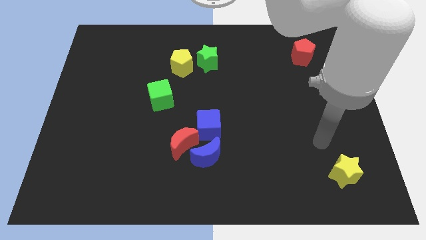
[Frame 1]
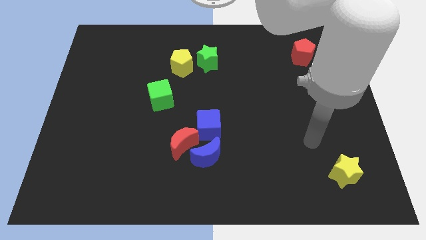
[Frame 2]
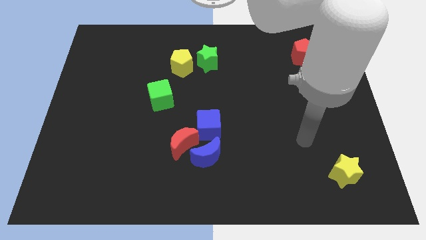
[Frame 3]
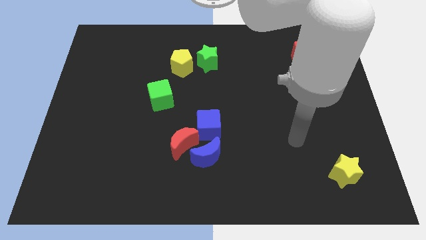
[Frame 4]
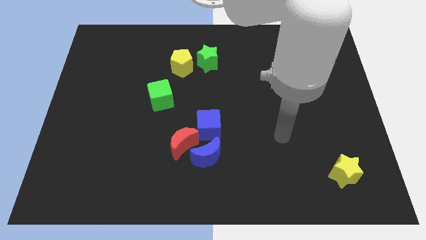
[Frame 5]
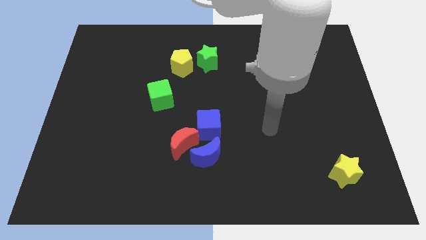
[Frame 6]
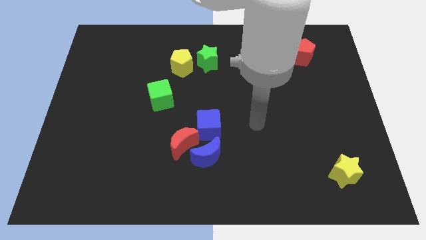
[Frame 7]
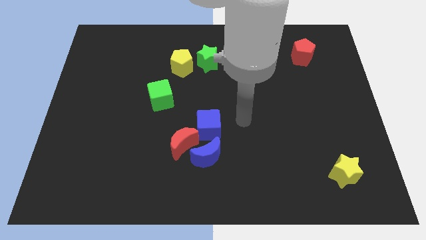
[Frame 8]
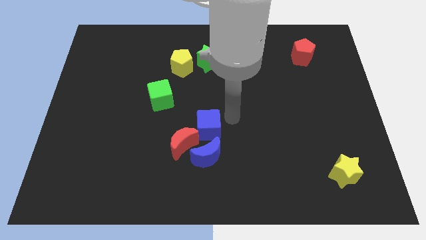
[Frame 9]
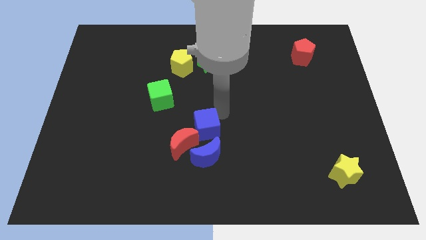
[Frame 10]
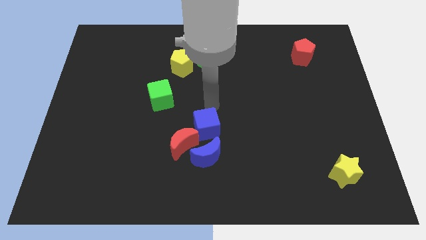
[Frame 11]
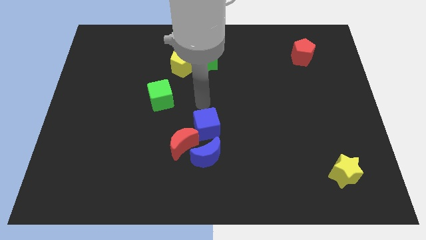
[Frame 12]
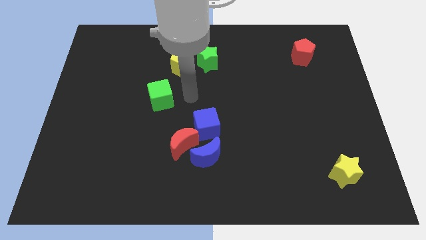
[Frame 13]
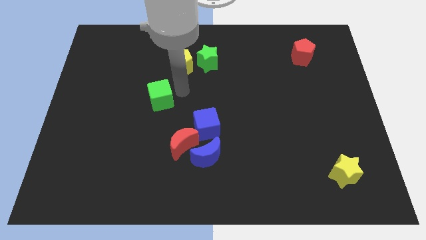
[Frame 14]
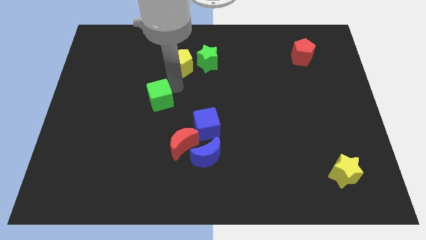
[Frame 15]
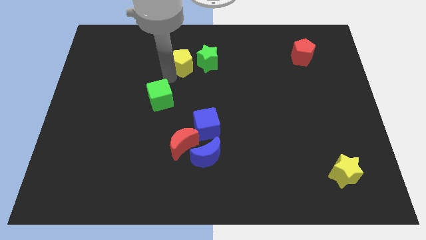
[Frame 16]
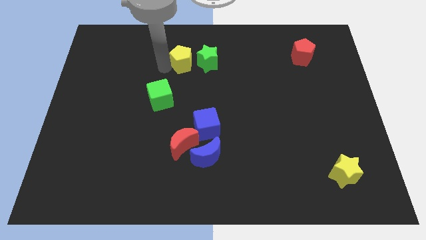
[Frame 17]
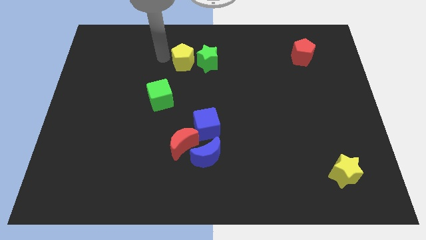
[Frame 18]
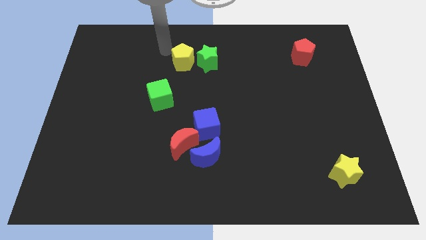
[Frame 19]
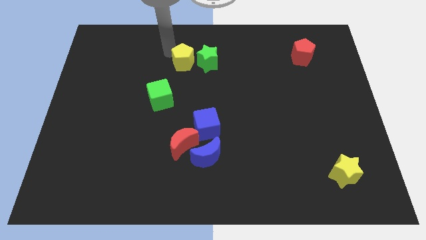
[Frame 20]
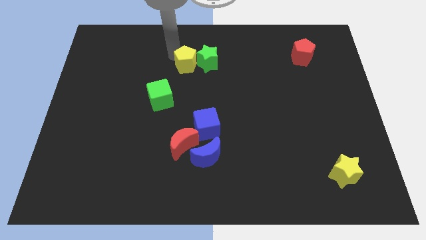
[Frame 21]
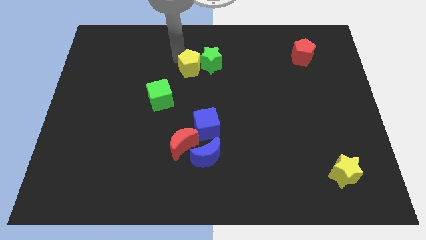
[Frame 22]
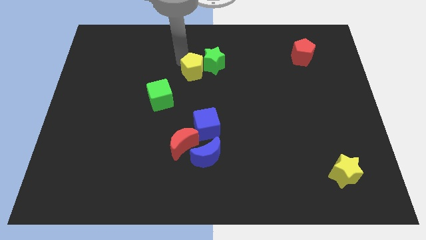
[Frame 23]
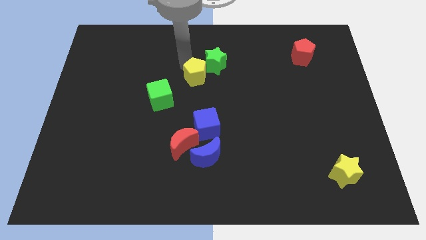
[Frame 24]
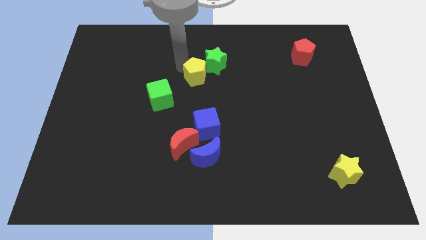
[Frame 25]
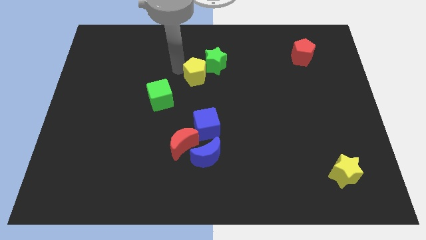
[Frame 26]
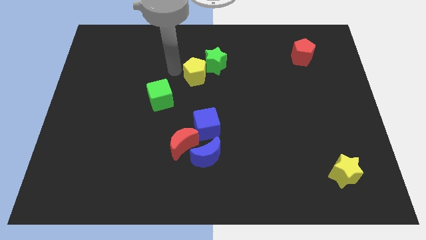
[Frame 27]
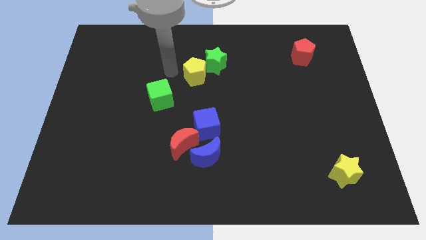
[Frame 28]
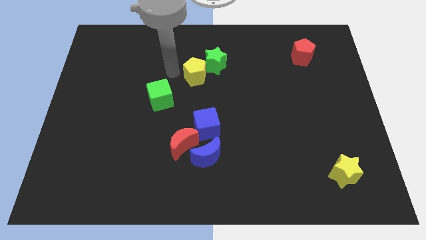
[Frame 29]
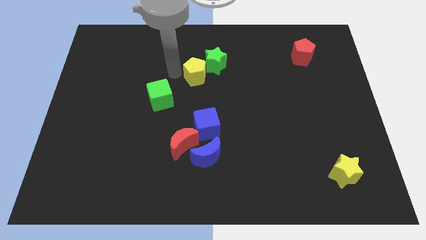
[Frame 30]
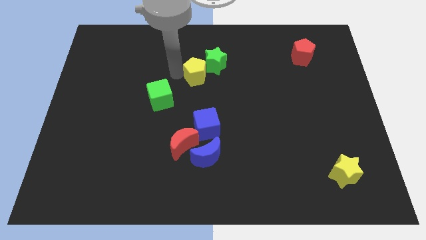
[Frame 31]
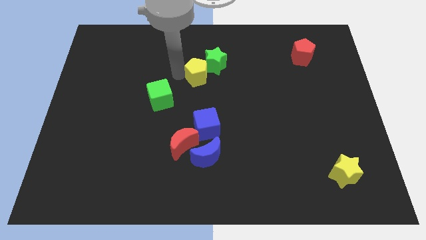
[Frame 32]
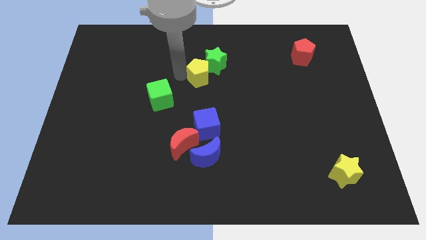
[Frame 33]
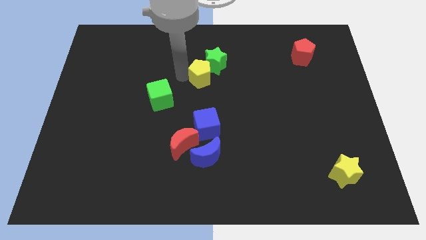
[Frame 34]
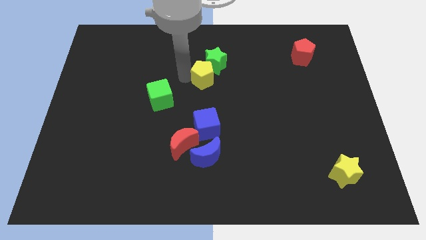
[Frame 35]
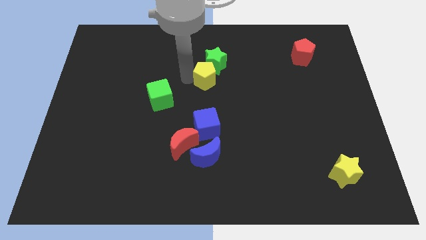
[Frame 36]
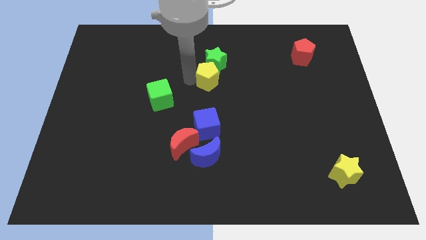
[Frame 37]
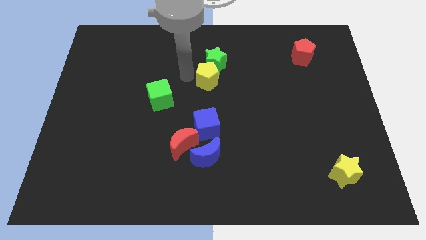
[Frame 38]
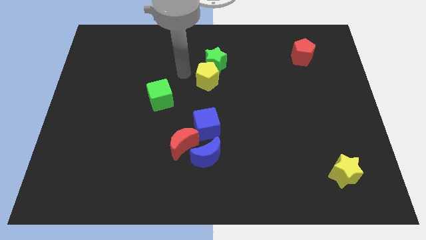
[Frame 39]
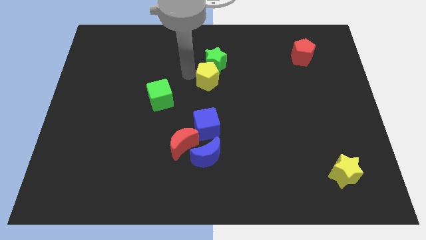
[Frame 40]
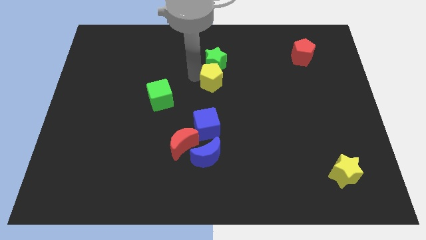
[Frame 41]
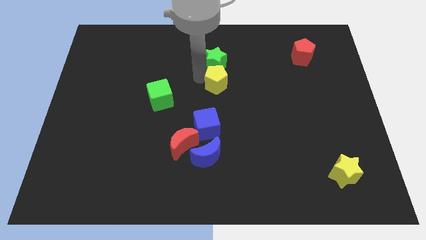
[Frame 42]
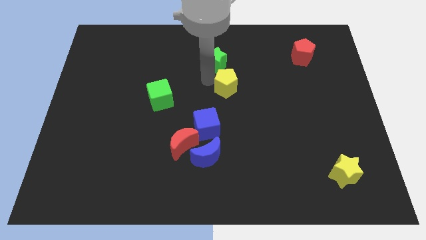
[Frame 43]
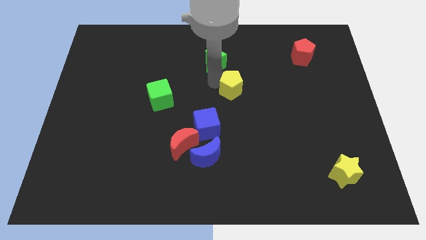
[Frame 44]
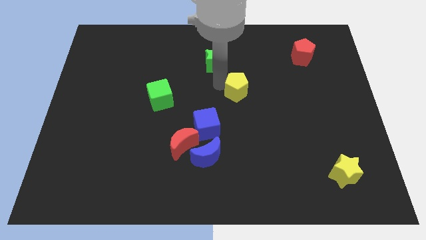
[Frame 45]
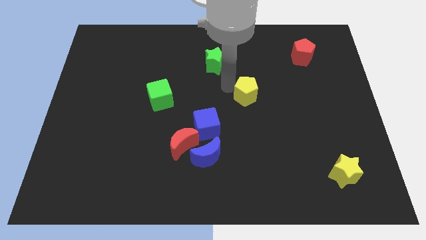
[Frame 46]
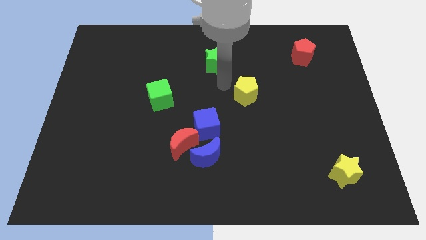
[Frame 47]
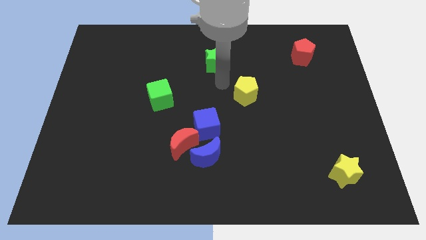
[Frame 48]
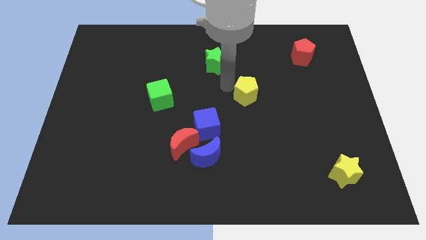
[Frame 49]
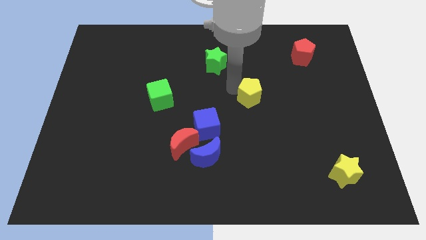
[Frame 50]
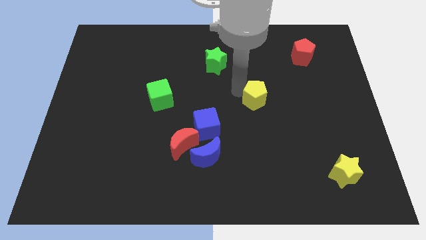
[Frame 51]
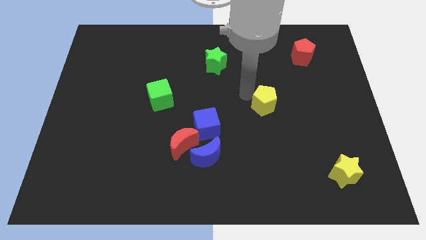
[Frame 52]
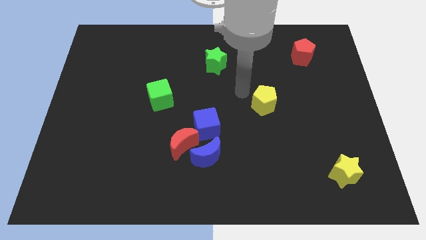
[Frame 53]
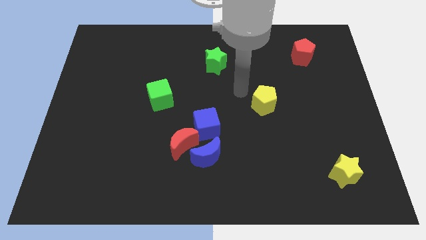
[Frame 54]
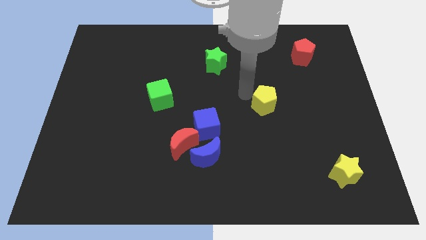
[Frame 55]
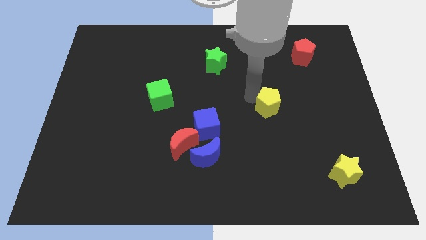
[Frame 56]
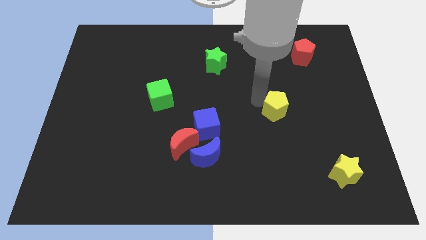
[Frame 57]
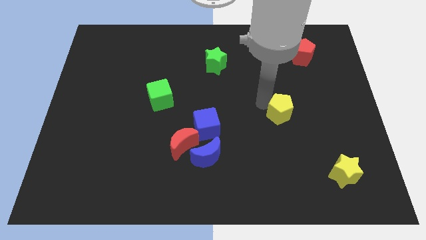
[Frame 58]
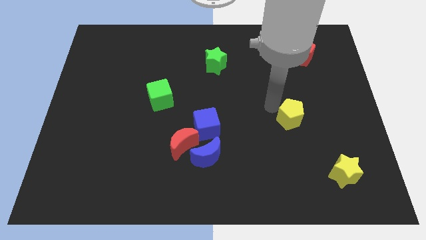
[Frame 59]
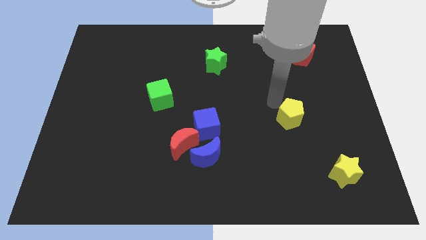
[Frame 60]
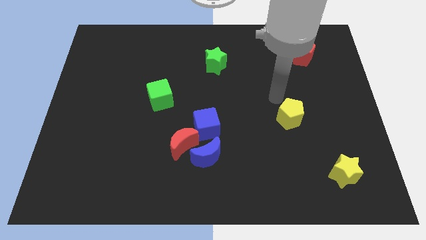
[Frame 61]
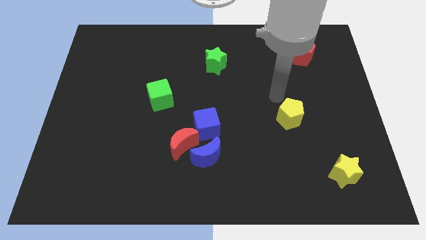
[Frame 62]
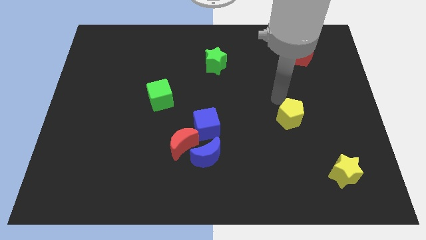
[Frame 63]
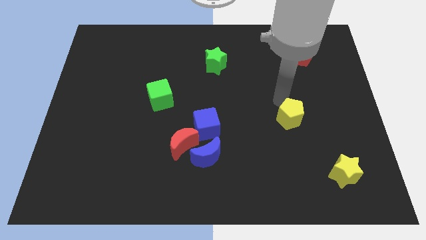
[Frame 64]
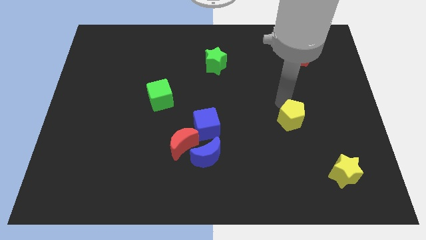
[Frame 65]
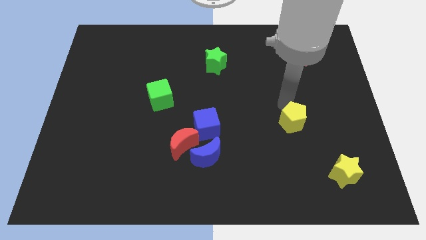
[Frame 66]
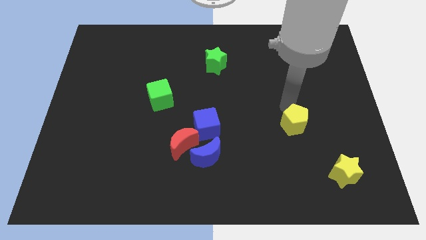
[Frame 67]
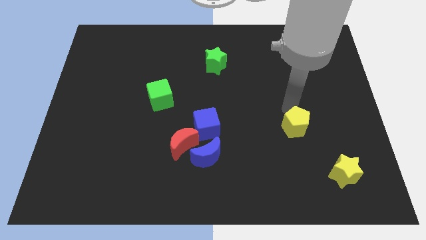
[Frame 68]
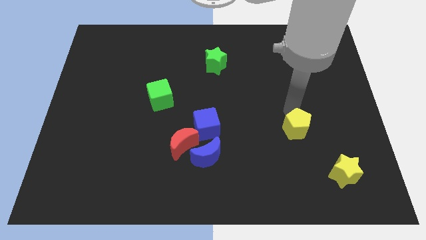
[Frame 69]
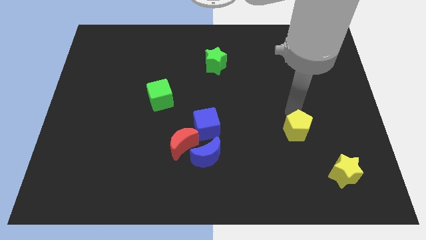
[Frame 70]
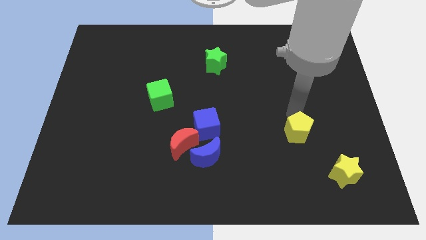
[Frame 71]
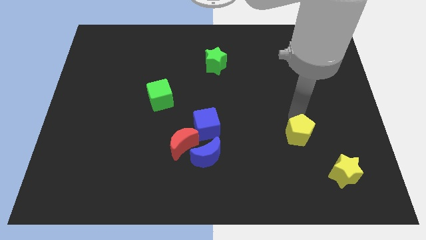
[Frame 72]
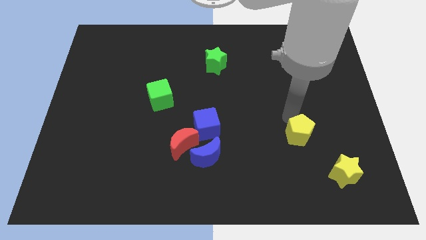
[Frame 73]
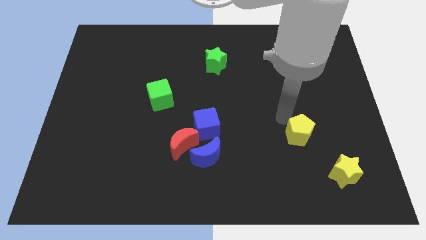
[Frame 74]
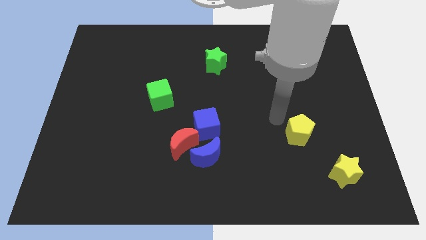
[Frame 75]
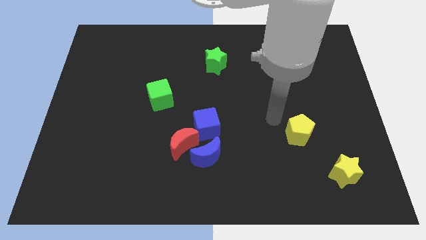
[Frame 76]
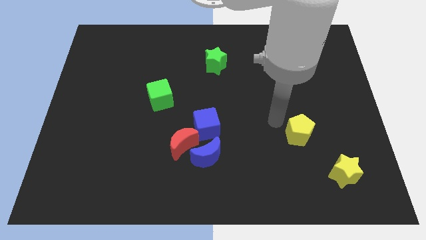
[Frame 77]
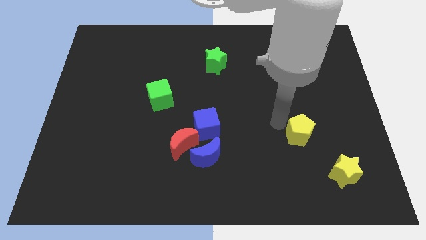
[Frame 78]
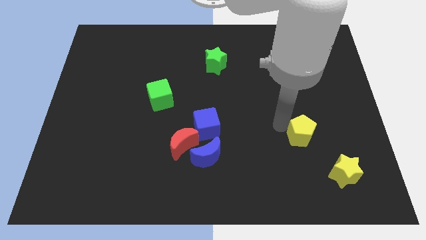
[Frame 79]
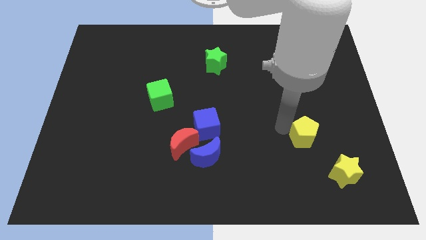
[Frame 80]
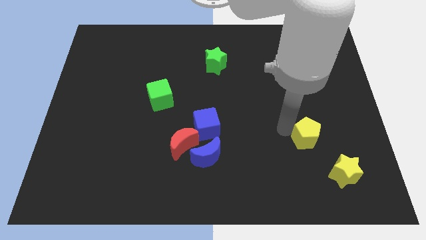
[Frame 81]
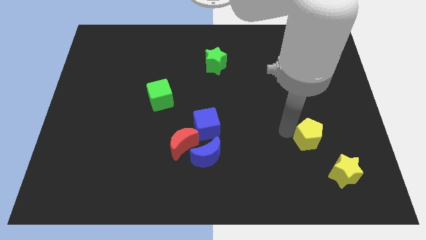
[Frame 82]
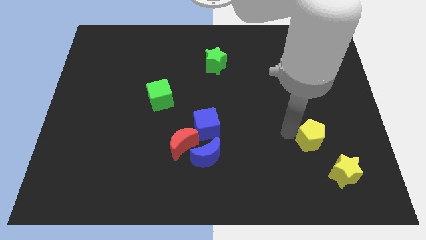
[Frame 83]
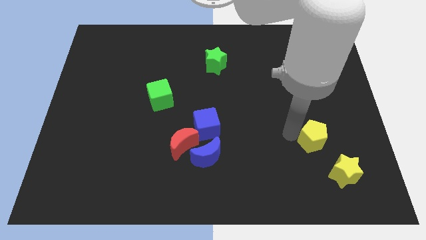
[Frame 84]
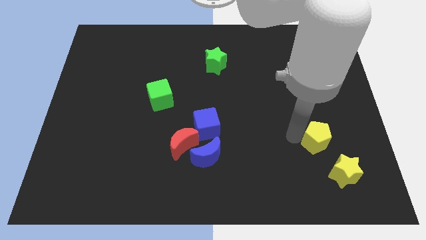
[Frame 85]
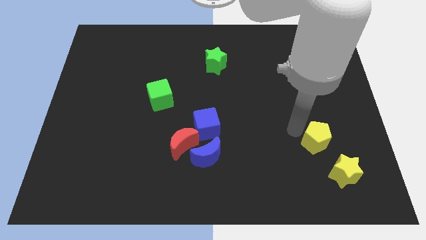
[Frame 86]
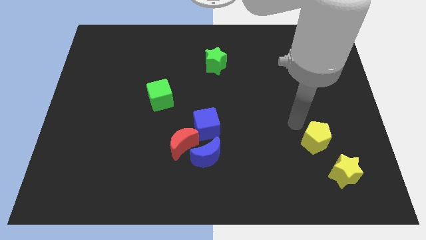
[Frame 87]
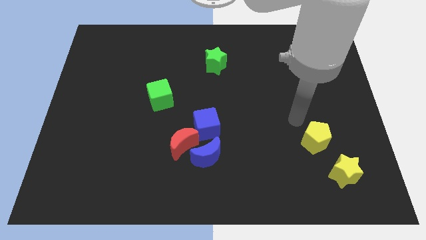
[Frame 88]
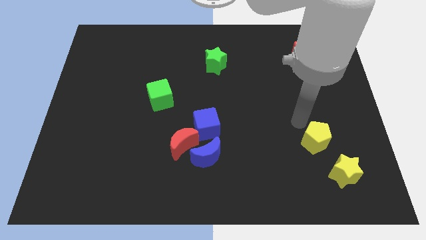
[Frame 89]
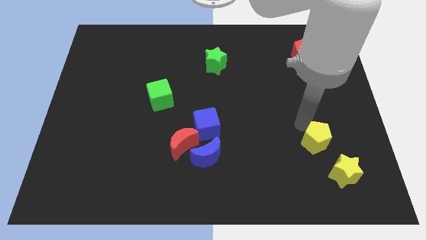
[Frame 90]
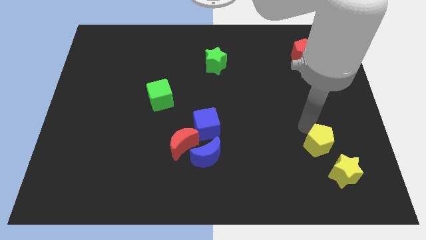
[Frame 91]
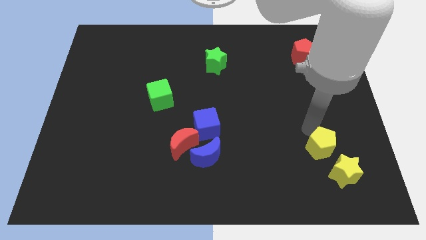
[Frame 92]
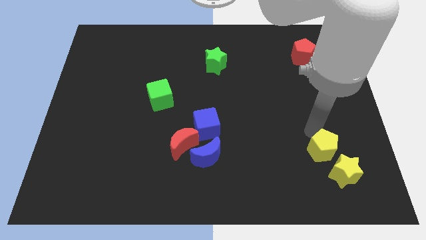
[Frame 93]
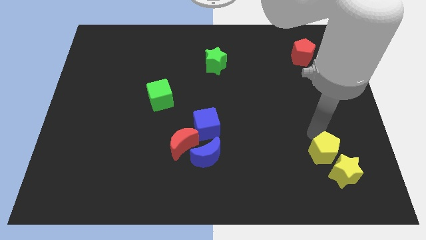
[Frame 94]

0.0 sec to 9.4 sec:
slide the yellow pentagon towards the yellow star
